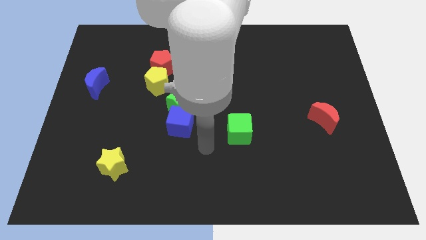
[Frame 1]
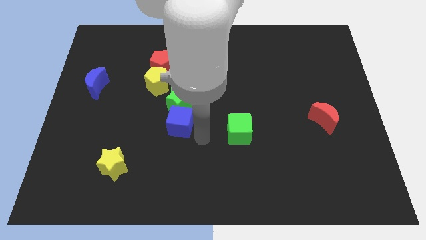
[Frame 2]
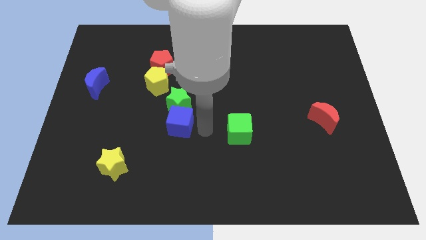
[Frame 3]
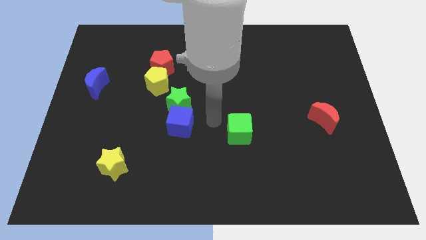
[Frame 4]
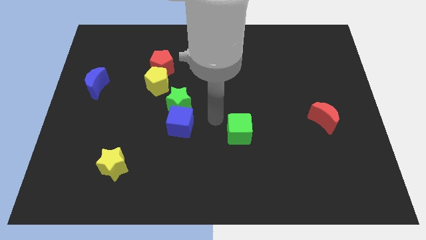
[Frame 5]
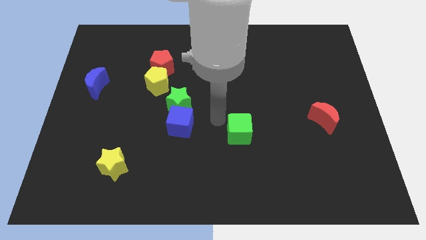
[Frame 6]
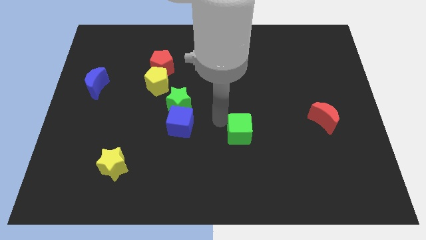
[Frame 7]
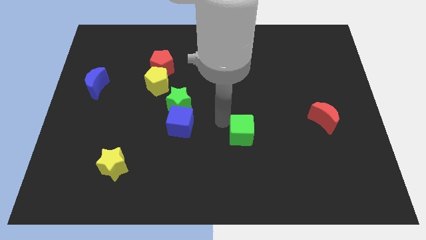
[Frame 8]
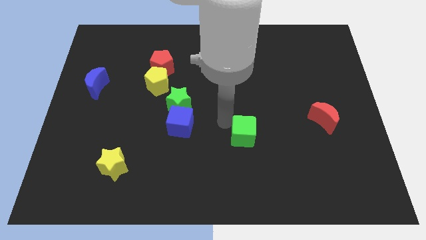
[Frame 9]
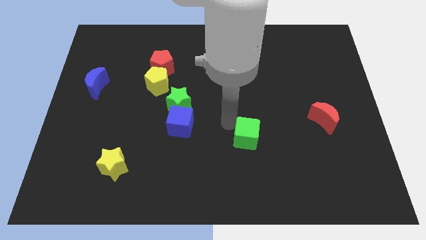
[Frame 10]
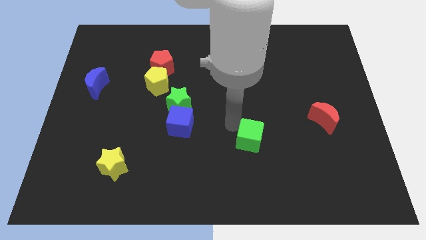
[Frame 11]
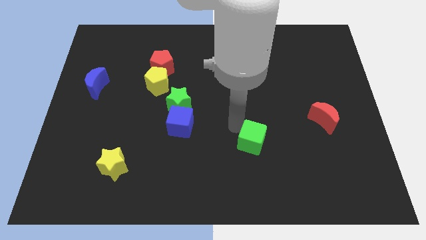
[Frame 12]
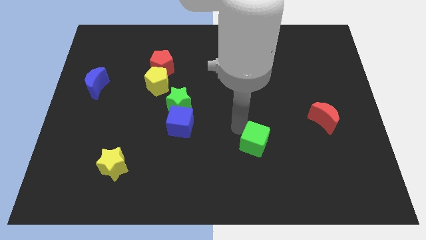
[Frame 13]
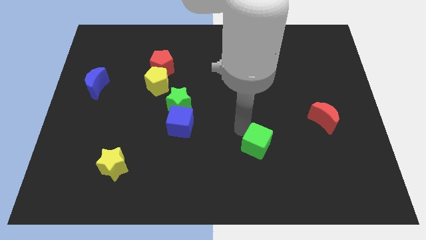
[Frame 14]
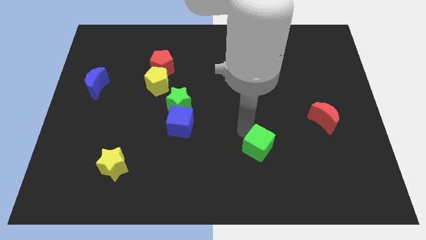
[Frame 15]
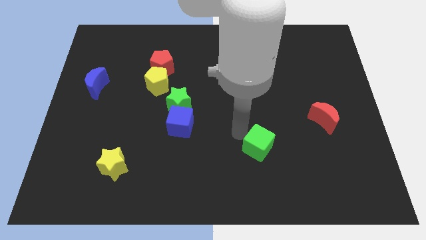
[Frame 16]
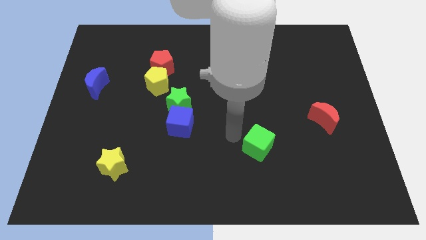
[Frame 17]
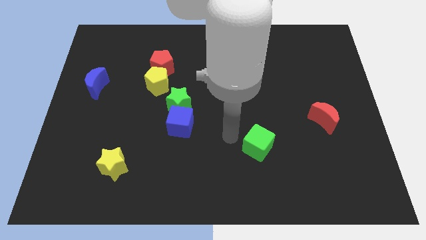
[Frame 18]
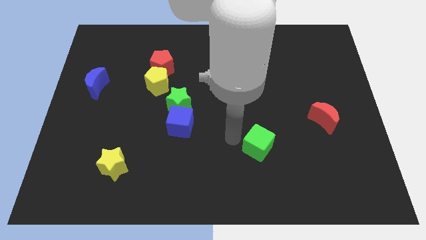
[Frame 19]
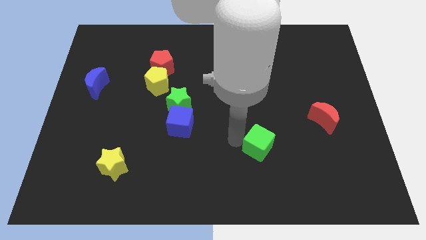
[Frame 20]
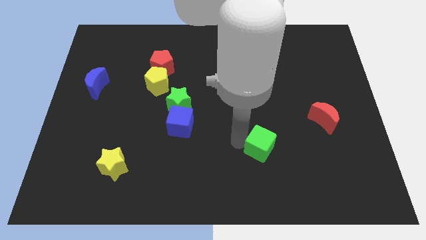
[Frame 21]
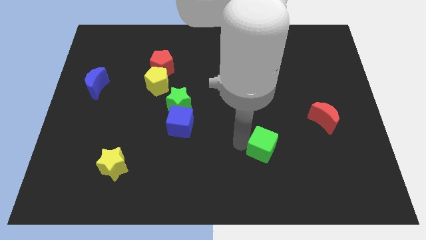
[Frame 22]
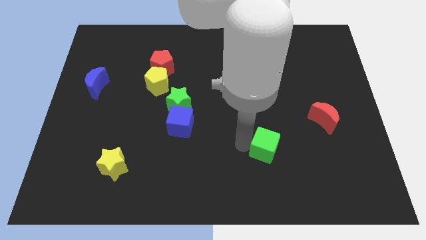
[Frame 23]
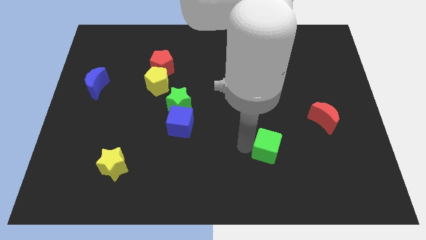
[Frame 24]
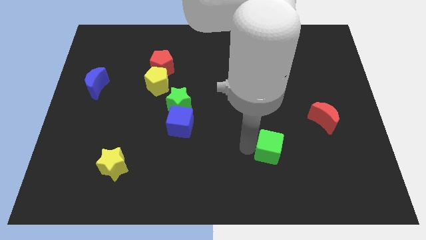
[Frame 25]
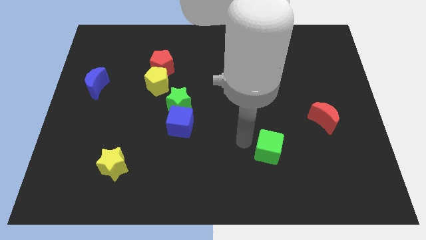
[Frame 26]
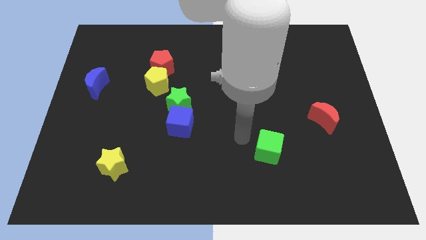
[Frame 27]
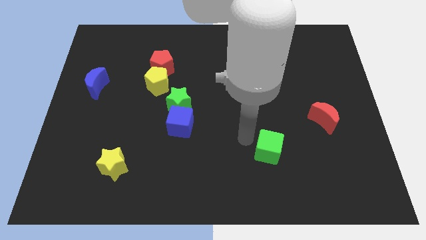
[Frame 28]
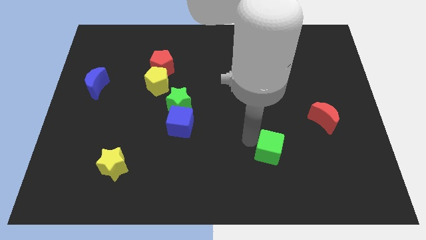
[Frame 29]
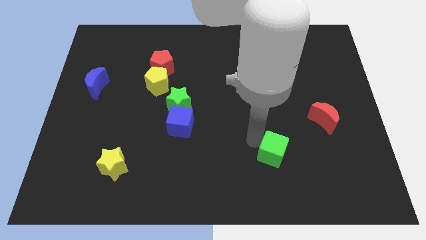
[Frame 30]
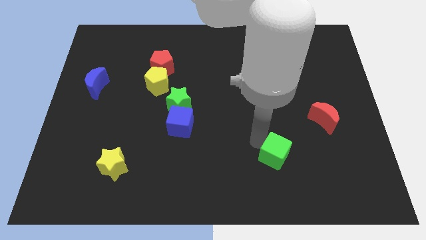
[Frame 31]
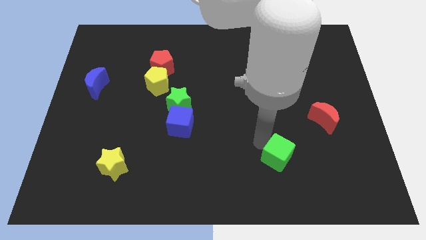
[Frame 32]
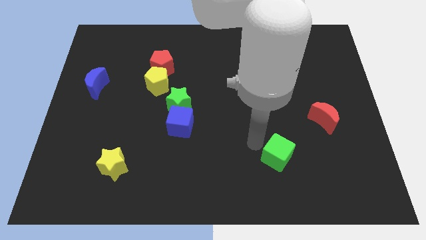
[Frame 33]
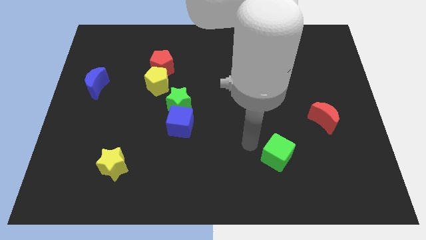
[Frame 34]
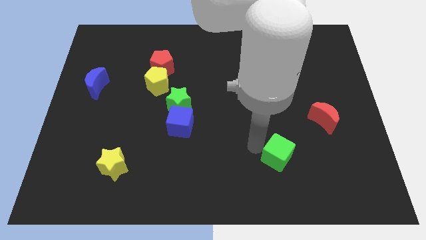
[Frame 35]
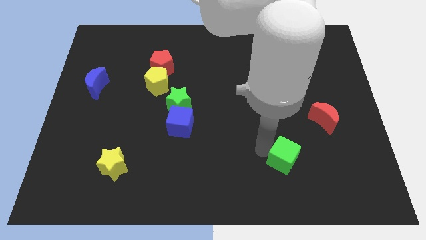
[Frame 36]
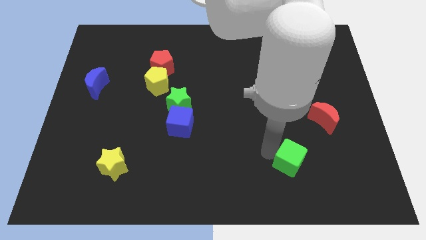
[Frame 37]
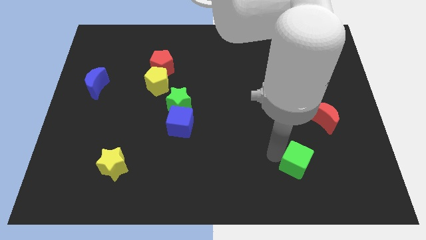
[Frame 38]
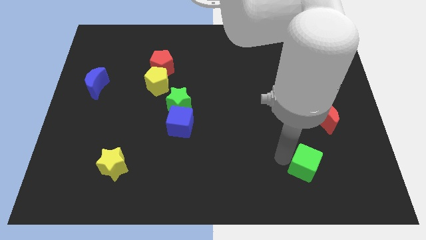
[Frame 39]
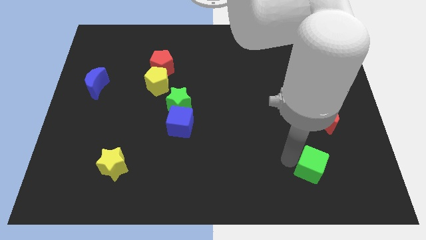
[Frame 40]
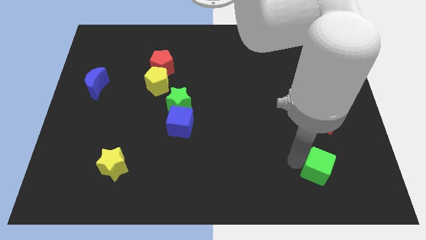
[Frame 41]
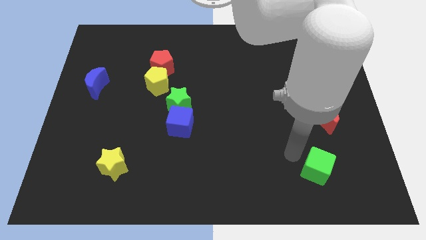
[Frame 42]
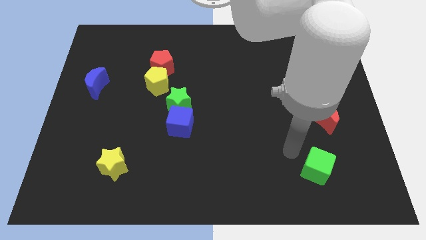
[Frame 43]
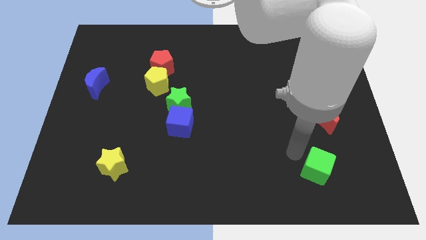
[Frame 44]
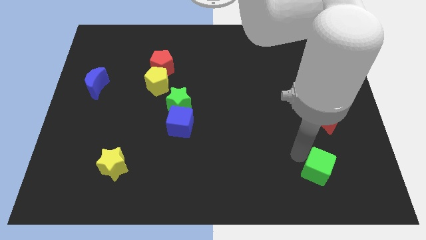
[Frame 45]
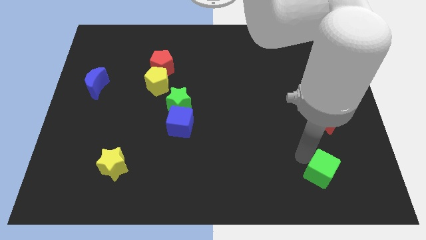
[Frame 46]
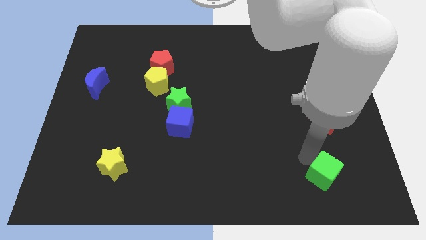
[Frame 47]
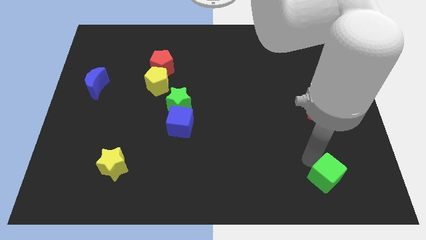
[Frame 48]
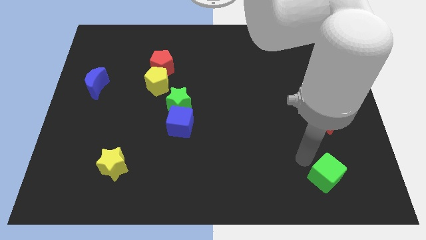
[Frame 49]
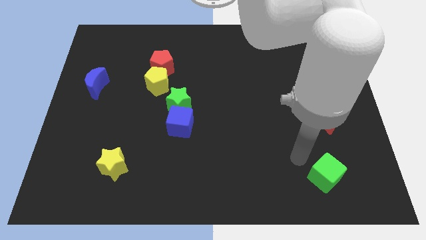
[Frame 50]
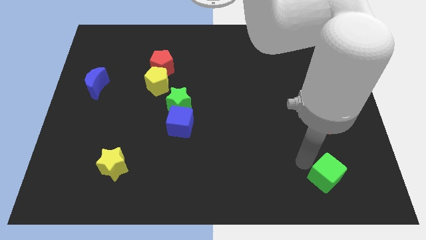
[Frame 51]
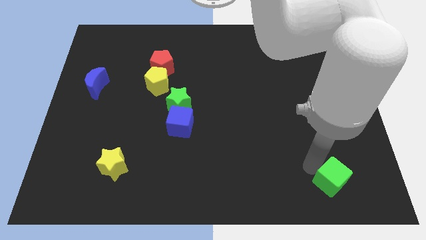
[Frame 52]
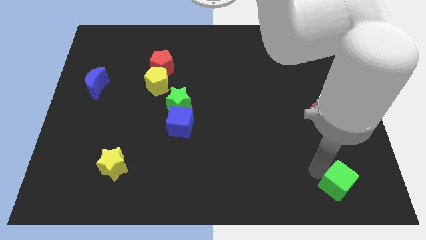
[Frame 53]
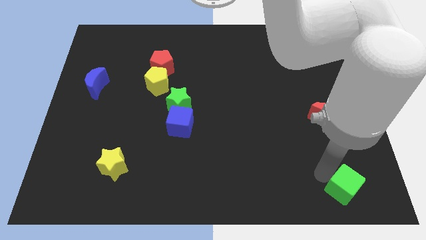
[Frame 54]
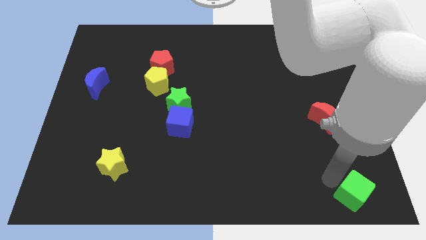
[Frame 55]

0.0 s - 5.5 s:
put the green cube to the lower right corner

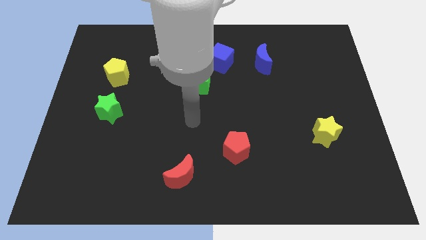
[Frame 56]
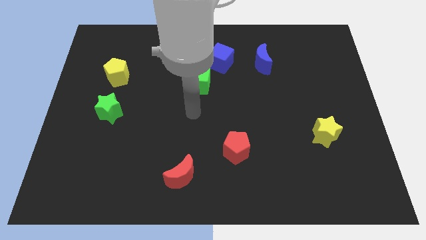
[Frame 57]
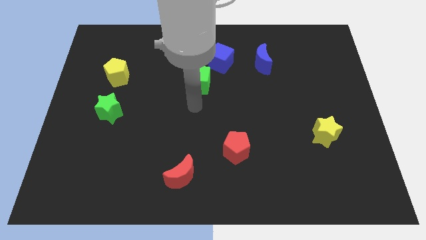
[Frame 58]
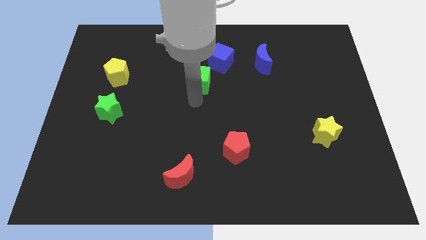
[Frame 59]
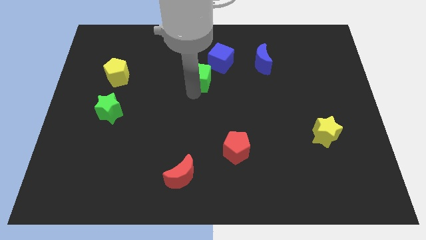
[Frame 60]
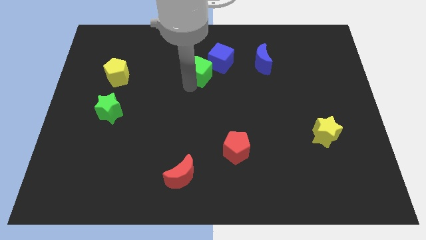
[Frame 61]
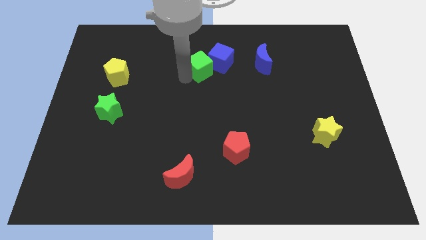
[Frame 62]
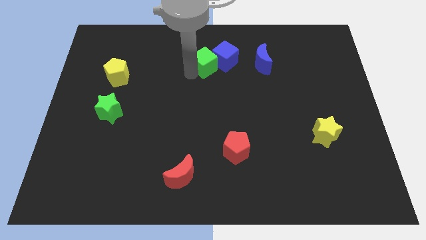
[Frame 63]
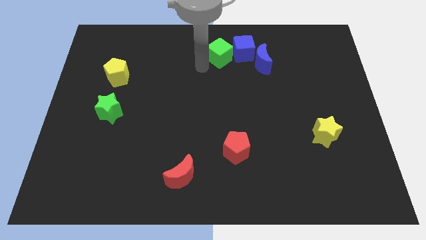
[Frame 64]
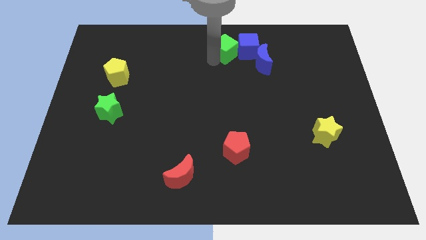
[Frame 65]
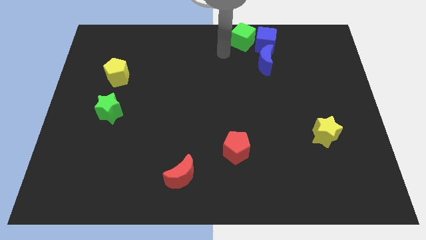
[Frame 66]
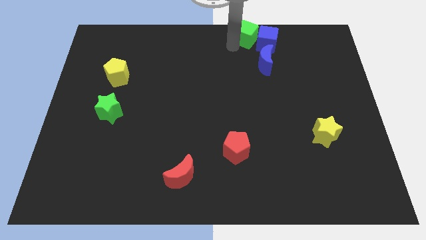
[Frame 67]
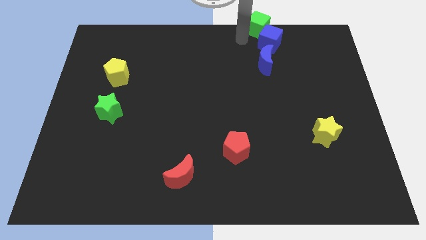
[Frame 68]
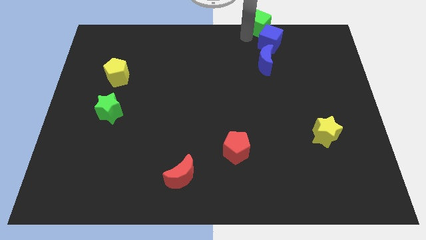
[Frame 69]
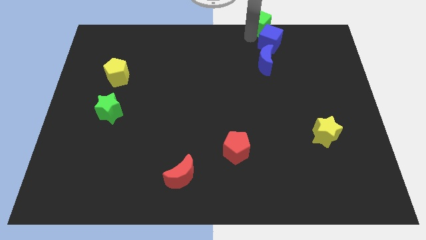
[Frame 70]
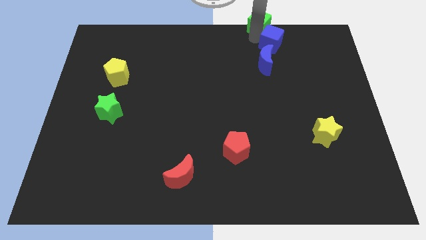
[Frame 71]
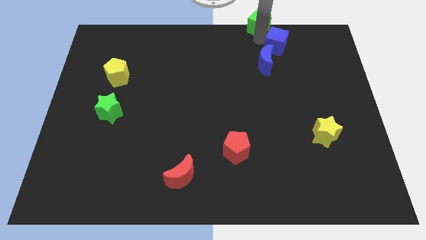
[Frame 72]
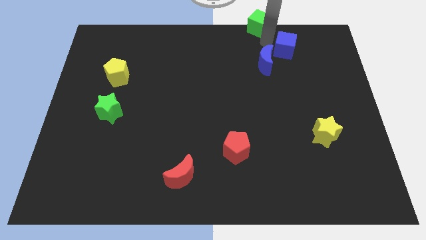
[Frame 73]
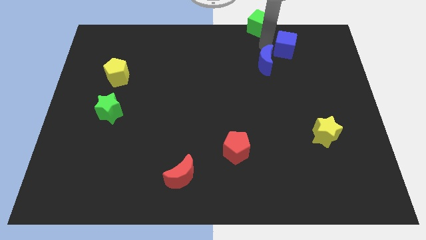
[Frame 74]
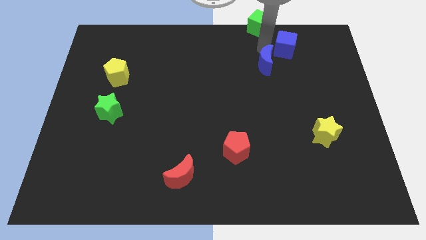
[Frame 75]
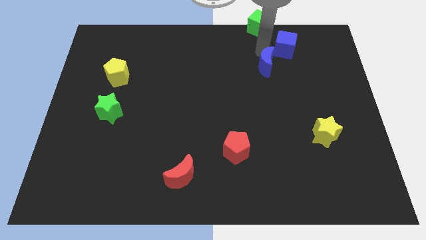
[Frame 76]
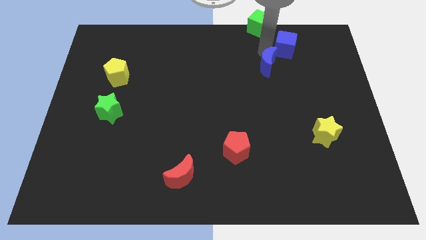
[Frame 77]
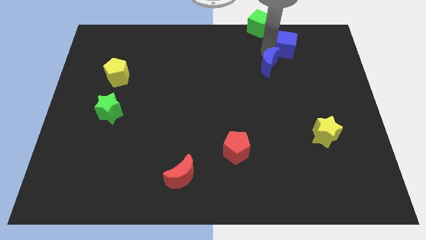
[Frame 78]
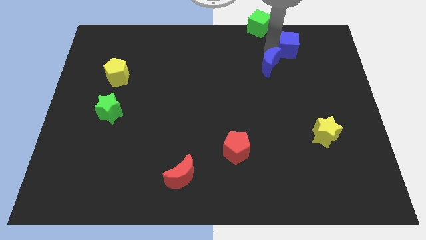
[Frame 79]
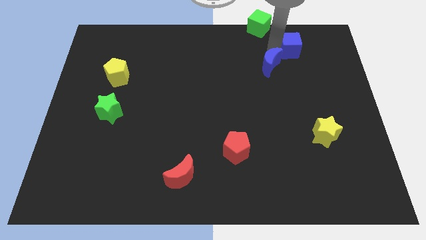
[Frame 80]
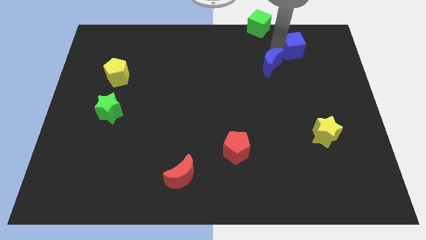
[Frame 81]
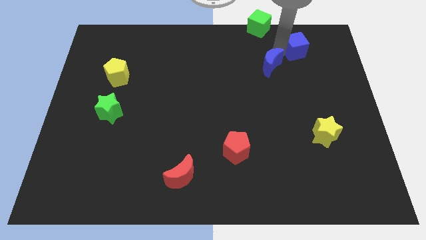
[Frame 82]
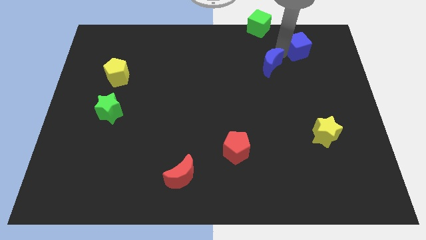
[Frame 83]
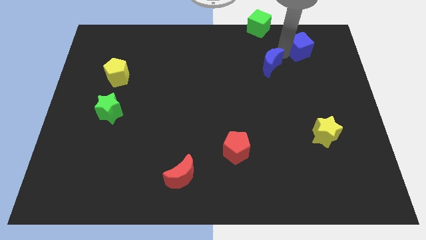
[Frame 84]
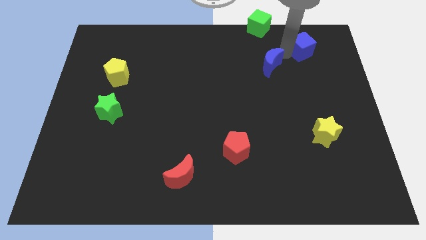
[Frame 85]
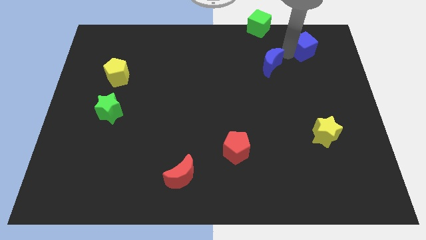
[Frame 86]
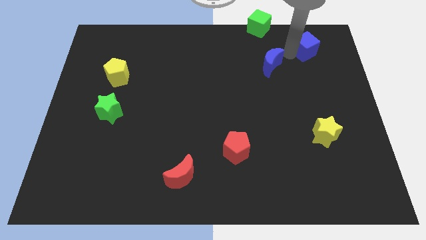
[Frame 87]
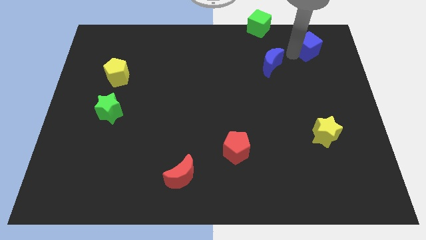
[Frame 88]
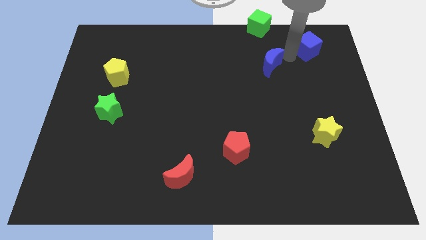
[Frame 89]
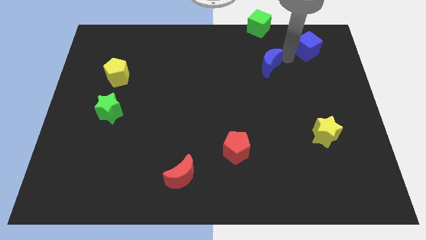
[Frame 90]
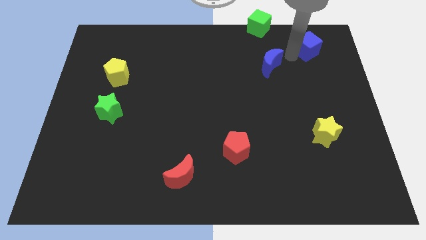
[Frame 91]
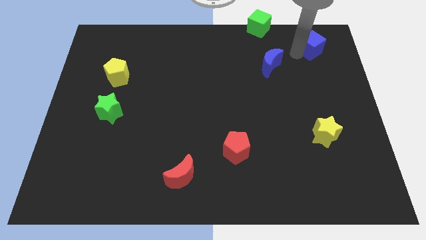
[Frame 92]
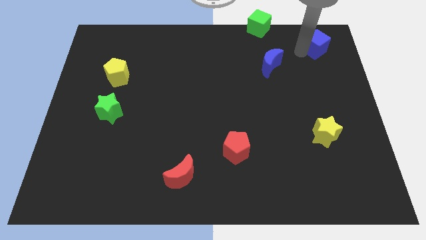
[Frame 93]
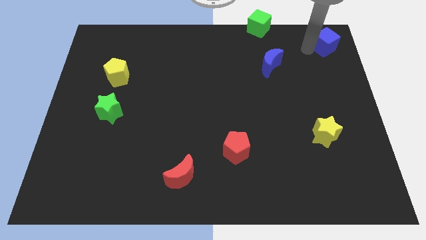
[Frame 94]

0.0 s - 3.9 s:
push the blue cube to the top right corner
